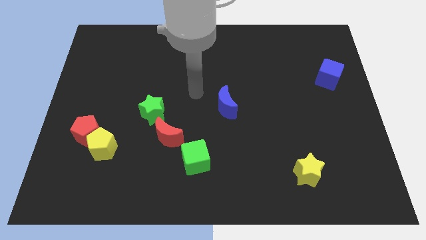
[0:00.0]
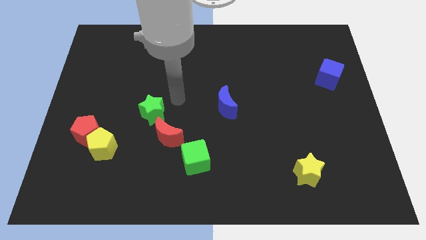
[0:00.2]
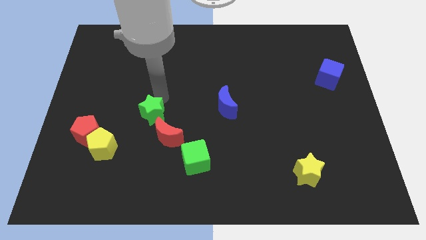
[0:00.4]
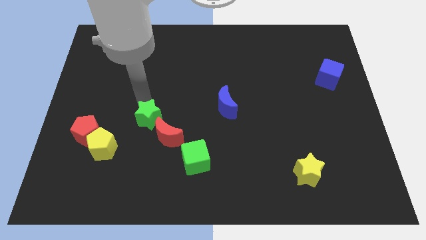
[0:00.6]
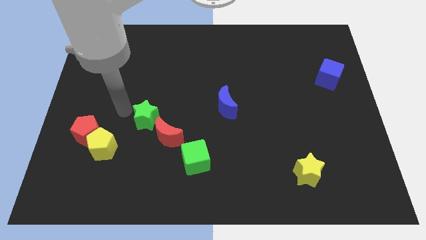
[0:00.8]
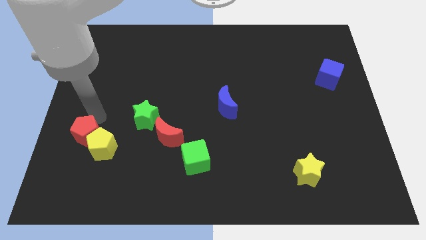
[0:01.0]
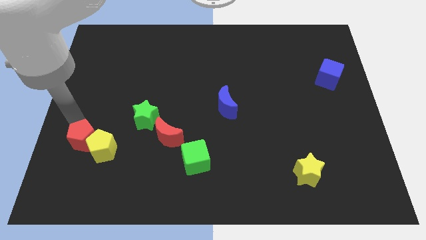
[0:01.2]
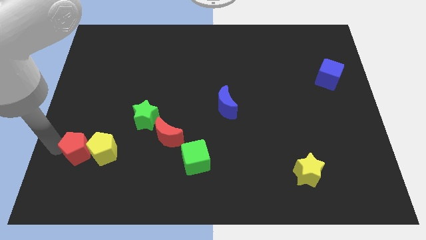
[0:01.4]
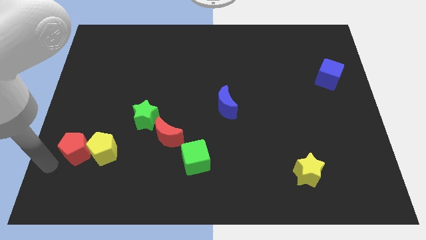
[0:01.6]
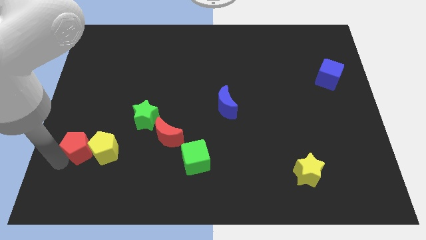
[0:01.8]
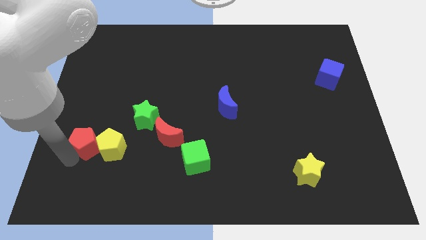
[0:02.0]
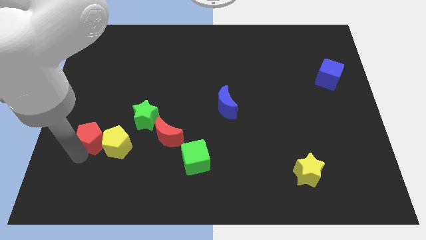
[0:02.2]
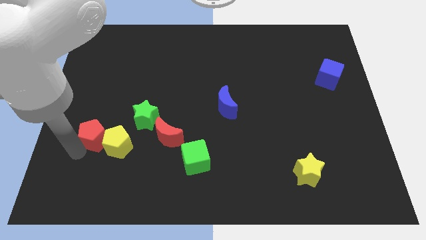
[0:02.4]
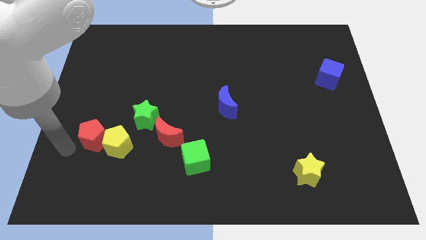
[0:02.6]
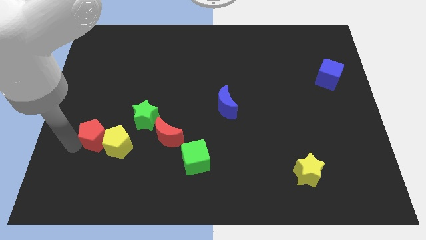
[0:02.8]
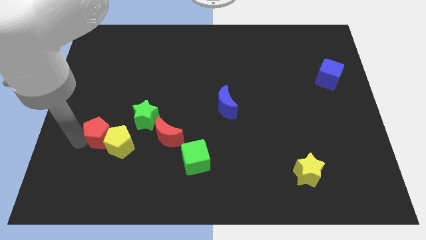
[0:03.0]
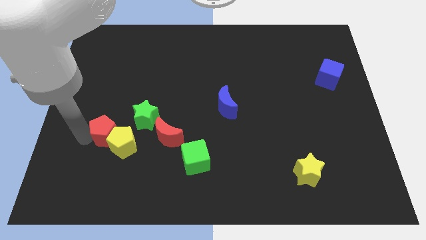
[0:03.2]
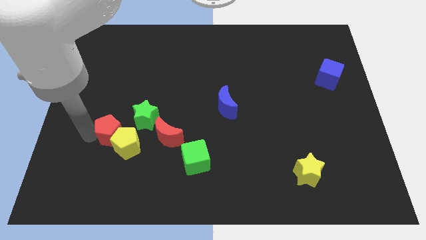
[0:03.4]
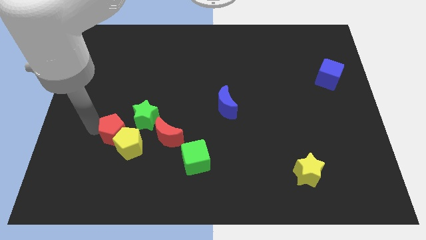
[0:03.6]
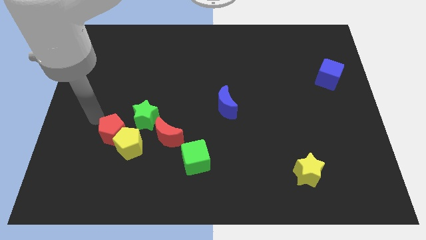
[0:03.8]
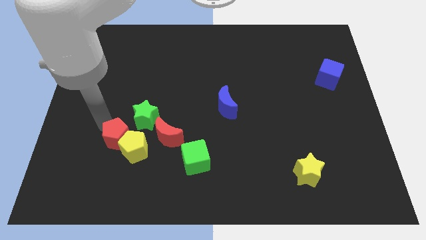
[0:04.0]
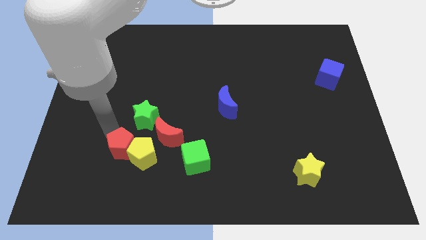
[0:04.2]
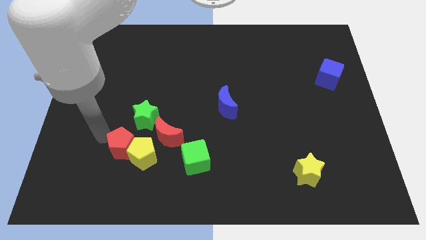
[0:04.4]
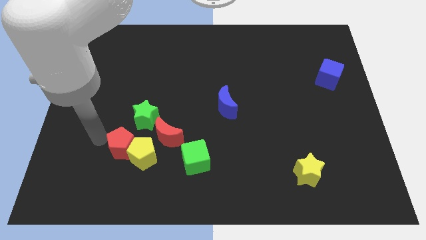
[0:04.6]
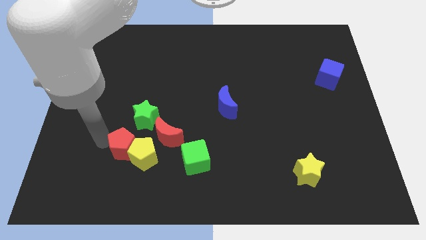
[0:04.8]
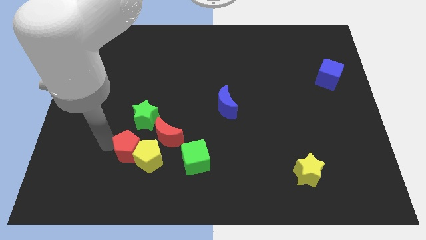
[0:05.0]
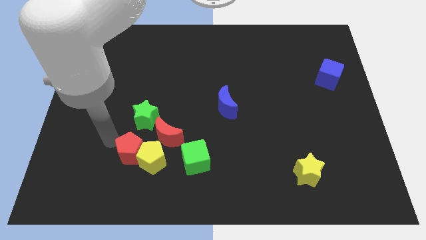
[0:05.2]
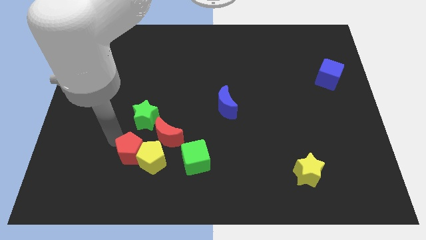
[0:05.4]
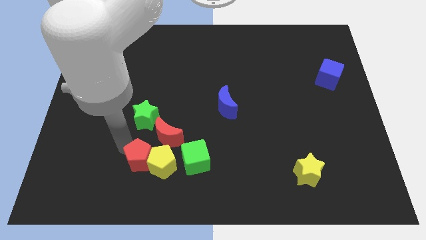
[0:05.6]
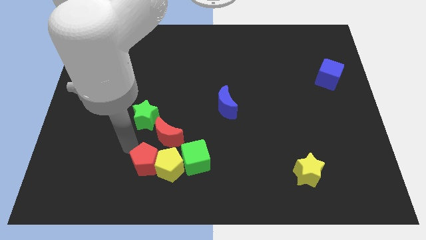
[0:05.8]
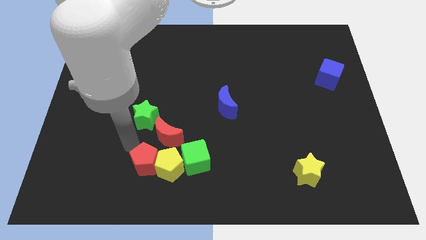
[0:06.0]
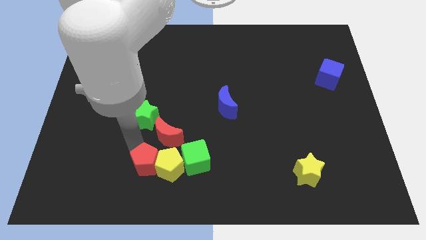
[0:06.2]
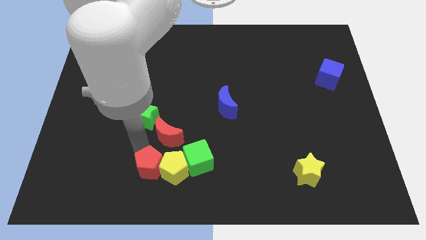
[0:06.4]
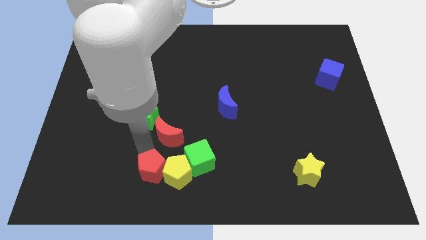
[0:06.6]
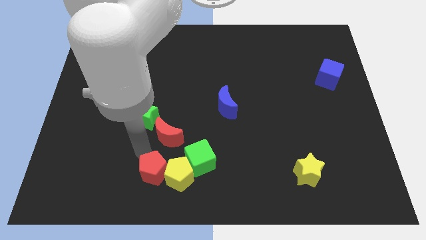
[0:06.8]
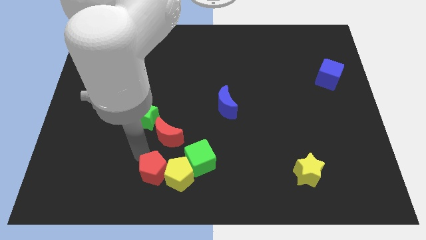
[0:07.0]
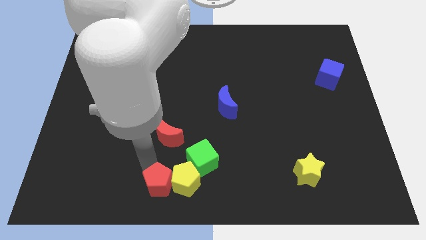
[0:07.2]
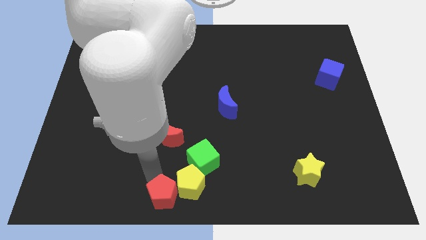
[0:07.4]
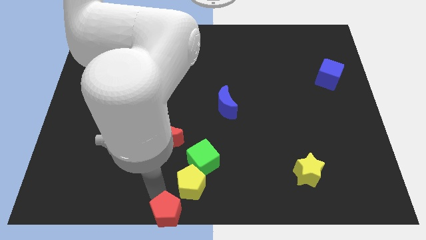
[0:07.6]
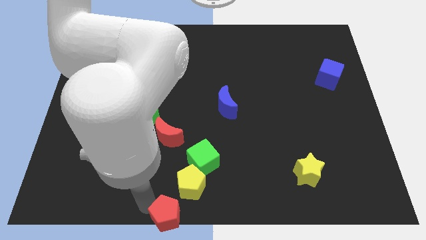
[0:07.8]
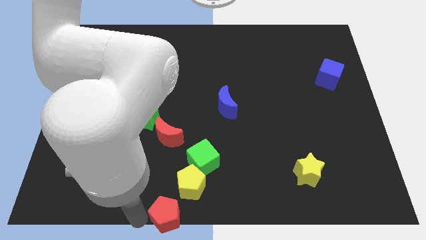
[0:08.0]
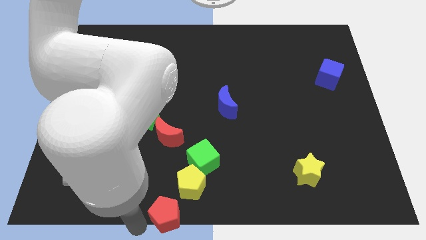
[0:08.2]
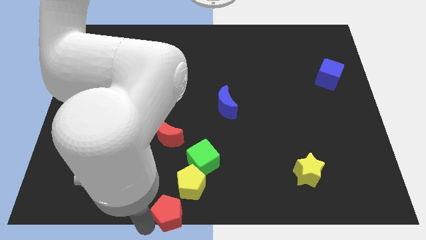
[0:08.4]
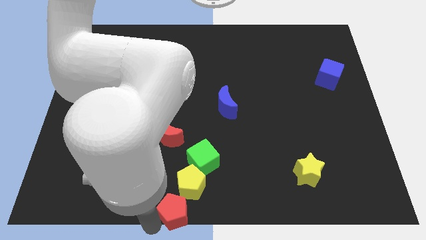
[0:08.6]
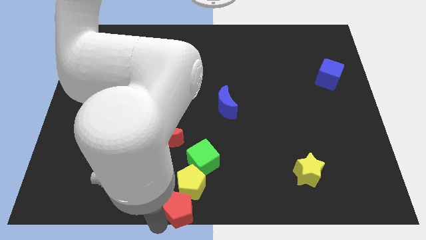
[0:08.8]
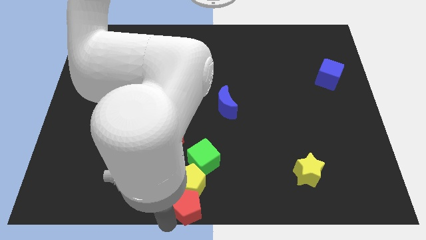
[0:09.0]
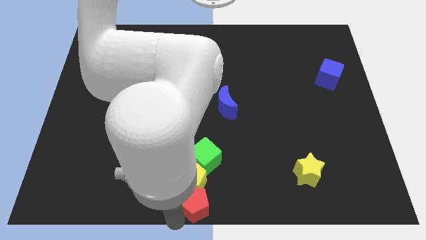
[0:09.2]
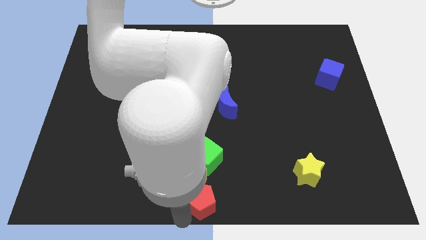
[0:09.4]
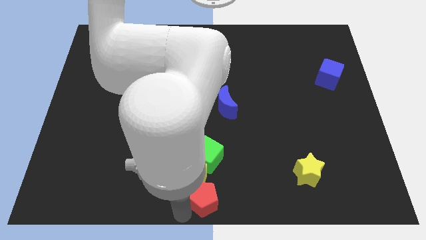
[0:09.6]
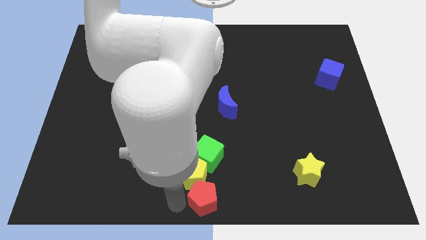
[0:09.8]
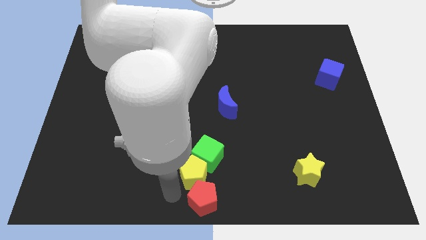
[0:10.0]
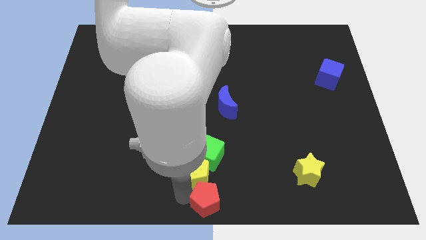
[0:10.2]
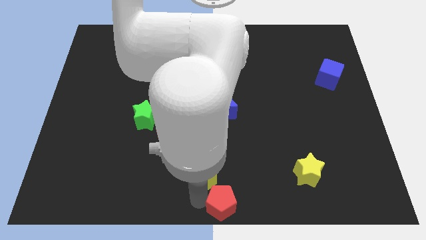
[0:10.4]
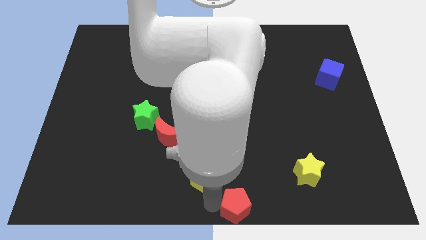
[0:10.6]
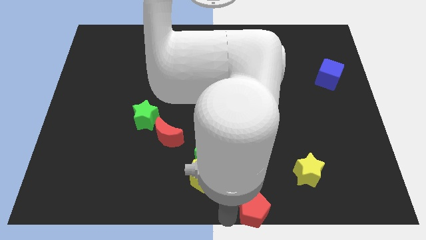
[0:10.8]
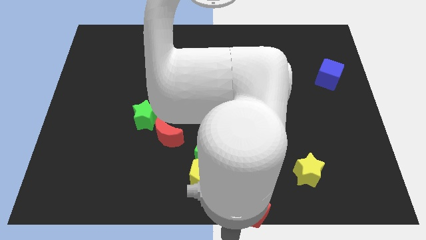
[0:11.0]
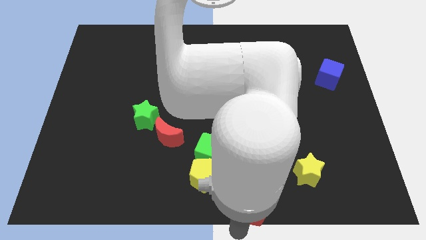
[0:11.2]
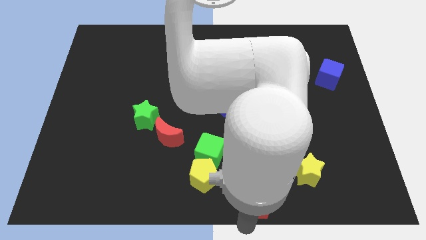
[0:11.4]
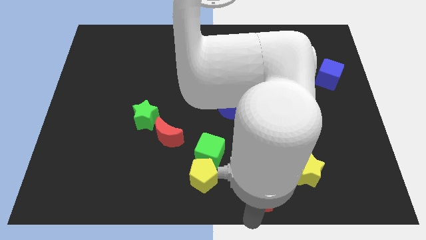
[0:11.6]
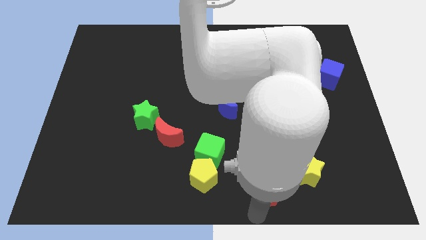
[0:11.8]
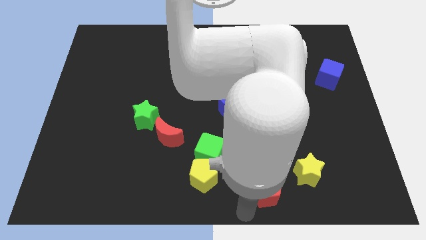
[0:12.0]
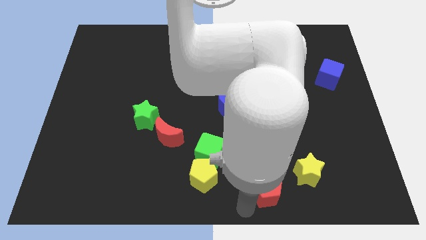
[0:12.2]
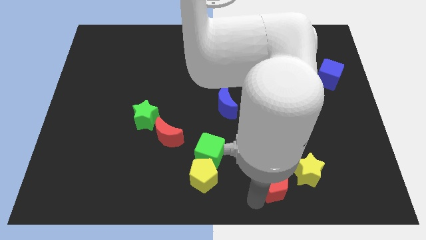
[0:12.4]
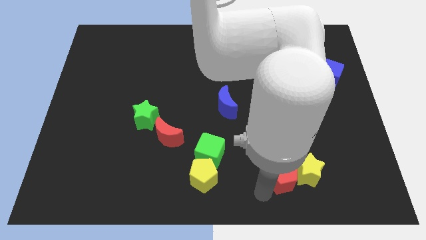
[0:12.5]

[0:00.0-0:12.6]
push the red pentagon next to the yellow star

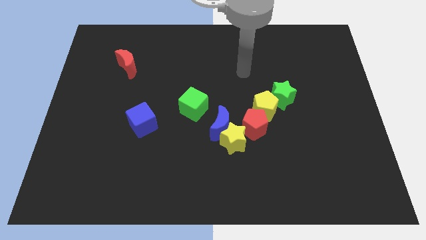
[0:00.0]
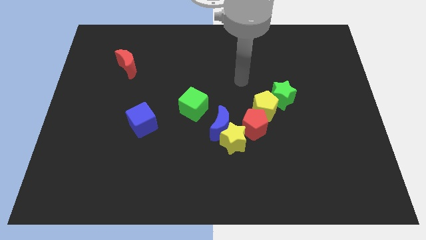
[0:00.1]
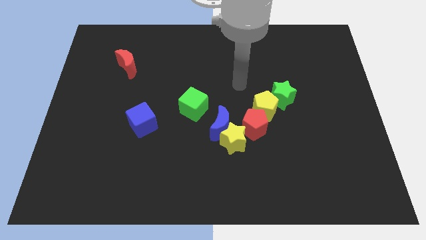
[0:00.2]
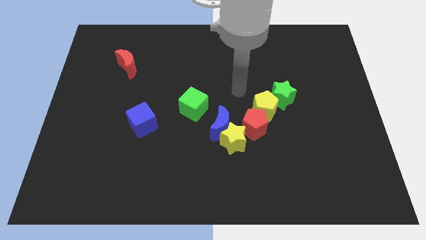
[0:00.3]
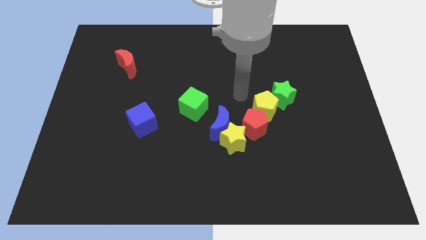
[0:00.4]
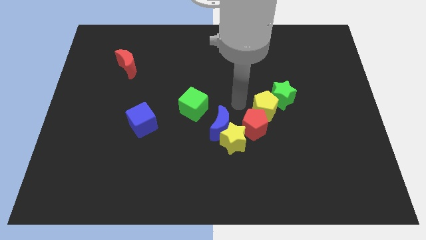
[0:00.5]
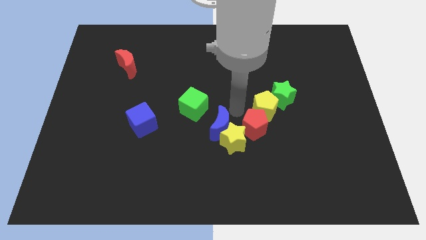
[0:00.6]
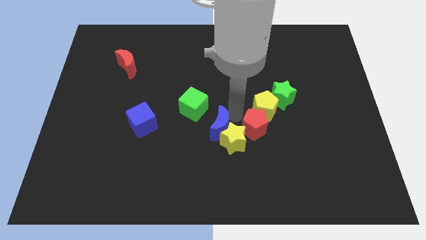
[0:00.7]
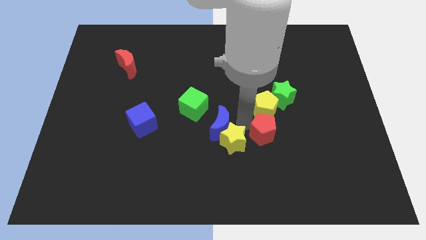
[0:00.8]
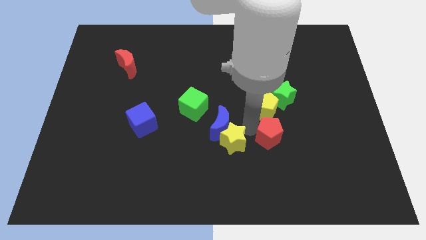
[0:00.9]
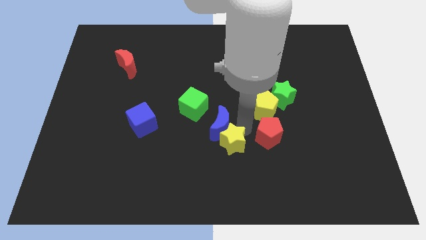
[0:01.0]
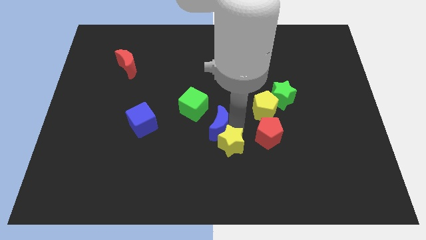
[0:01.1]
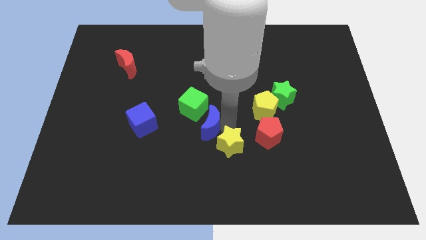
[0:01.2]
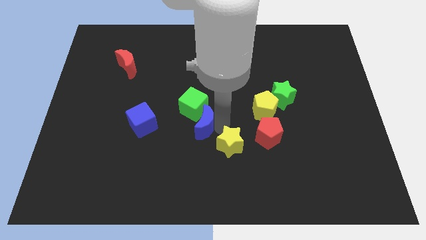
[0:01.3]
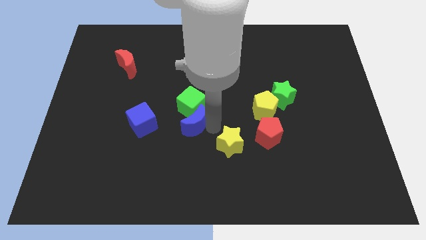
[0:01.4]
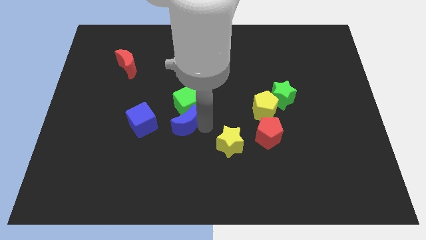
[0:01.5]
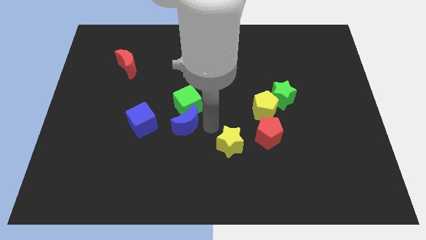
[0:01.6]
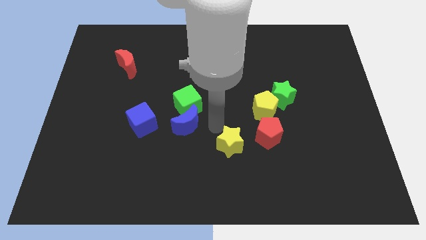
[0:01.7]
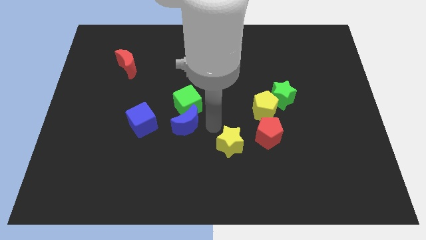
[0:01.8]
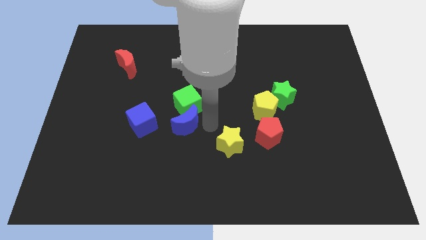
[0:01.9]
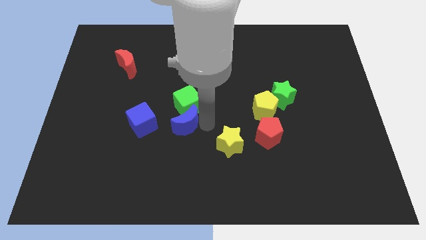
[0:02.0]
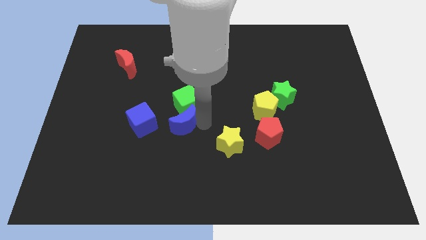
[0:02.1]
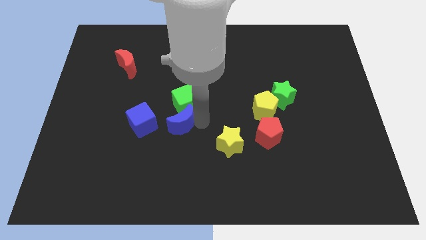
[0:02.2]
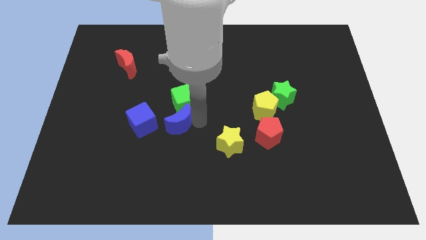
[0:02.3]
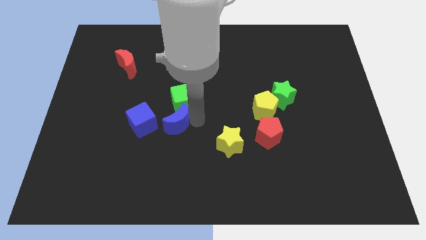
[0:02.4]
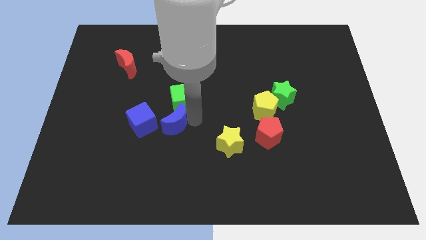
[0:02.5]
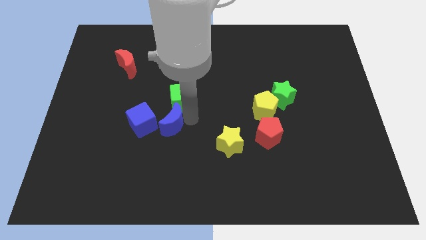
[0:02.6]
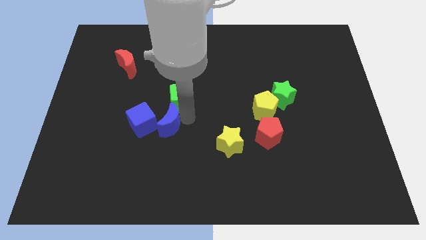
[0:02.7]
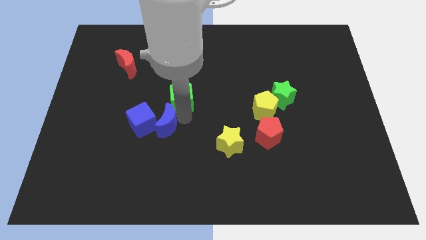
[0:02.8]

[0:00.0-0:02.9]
put the blue moon next to the blue cube
